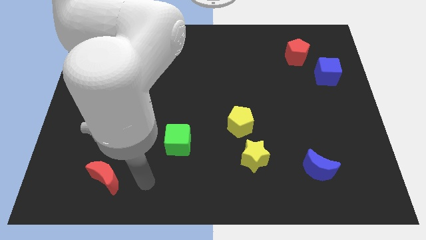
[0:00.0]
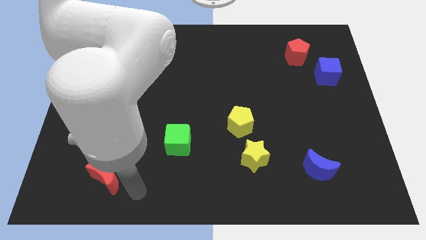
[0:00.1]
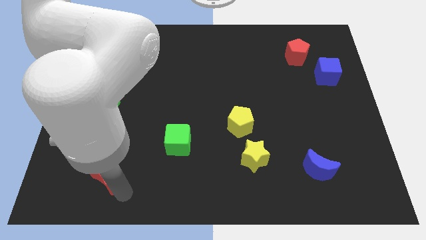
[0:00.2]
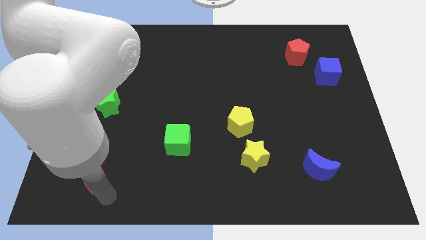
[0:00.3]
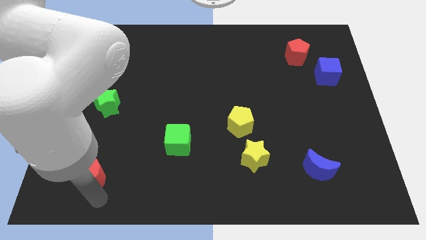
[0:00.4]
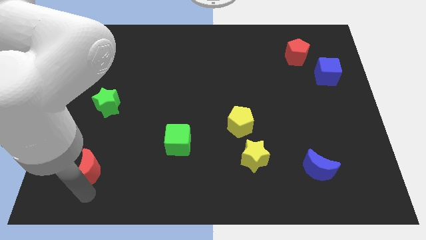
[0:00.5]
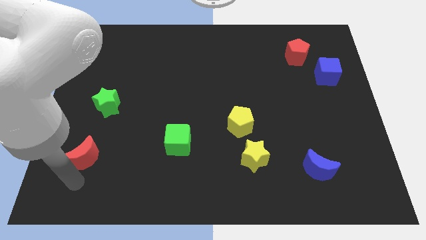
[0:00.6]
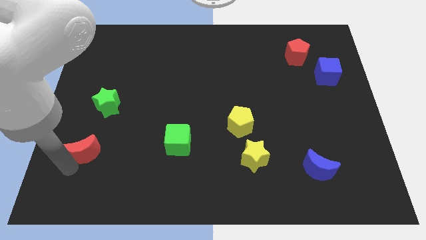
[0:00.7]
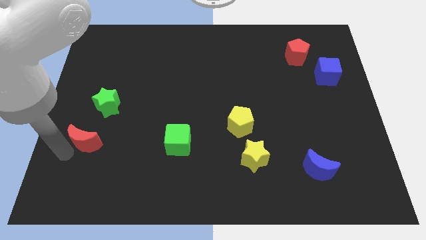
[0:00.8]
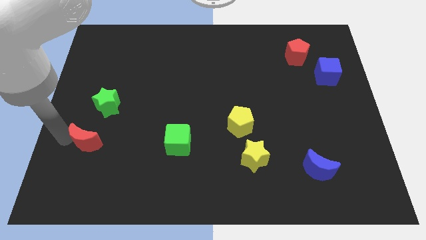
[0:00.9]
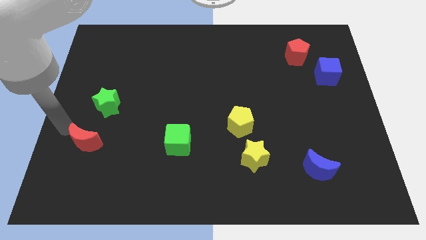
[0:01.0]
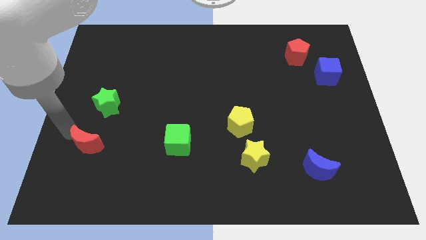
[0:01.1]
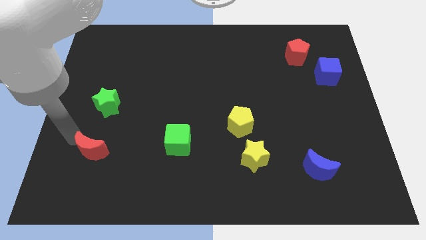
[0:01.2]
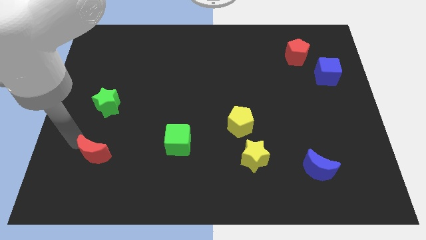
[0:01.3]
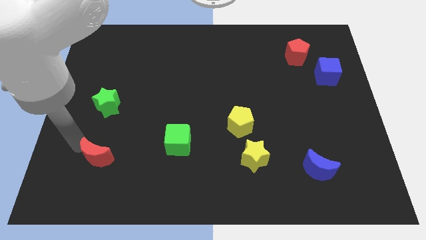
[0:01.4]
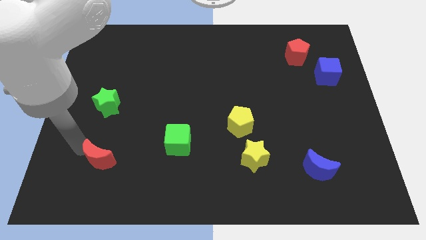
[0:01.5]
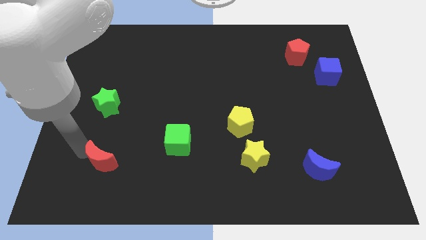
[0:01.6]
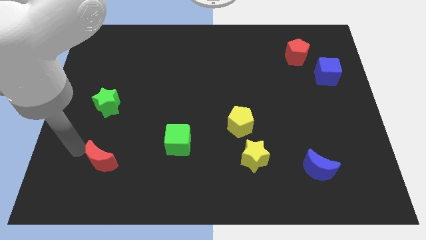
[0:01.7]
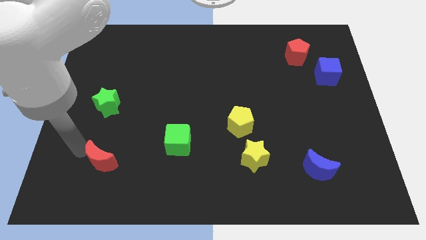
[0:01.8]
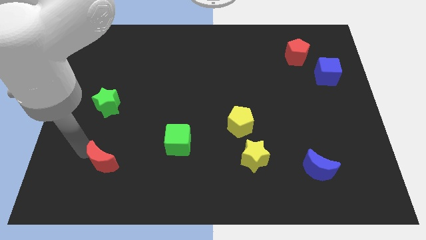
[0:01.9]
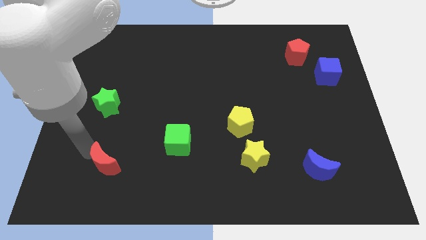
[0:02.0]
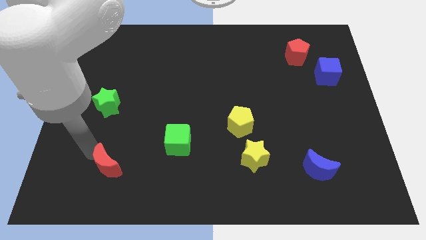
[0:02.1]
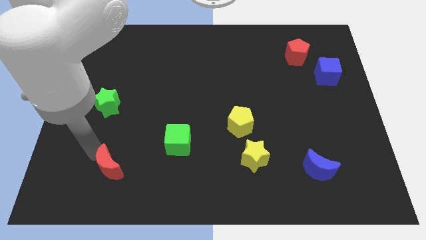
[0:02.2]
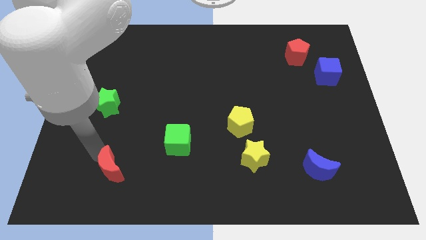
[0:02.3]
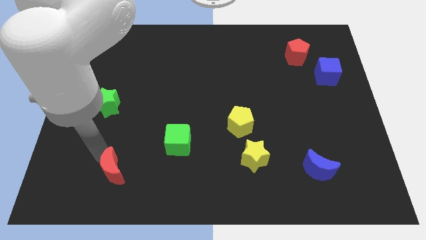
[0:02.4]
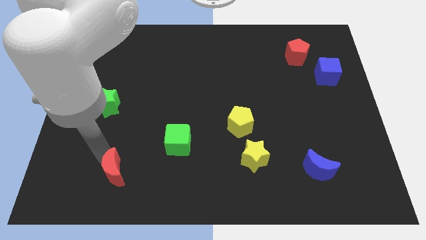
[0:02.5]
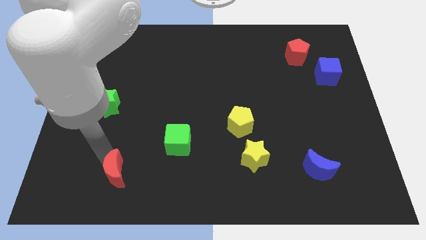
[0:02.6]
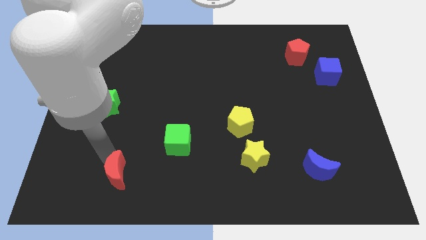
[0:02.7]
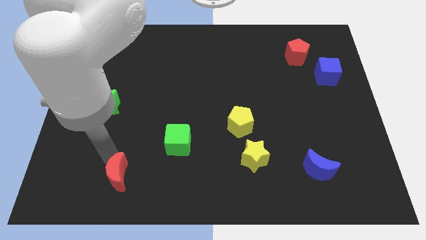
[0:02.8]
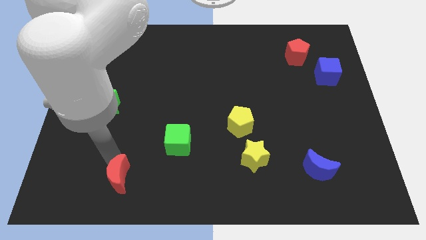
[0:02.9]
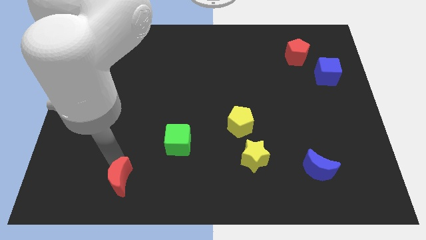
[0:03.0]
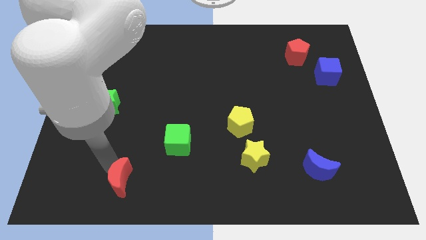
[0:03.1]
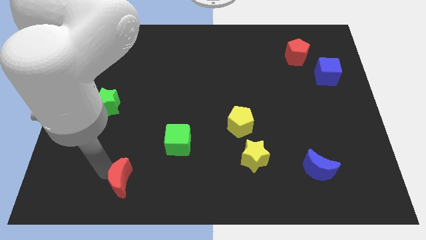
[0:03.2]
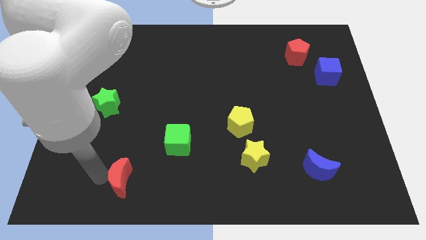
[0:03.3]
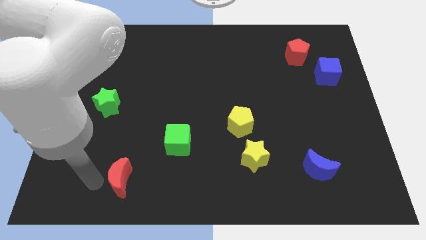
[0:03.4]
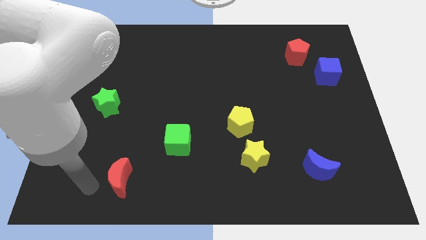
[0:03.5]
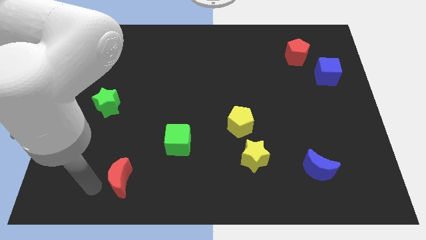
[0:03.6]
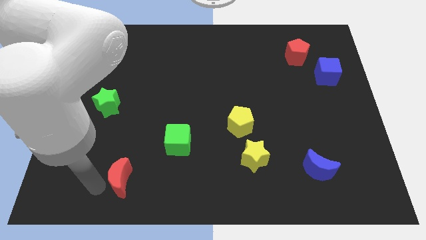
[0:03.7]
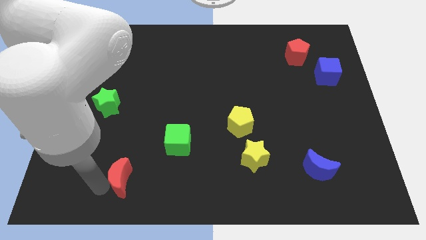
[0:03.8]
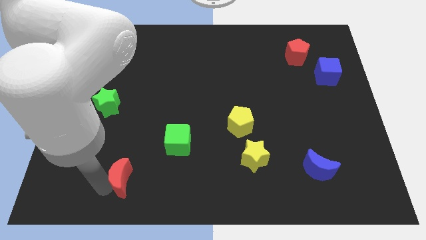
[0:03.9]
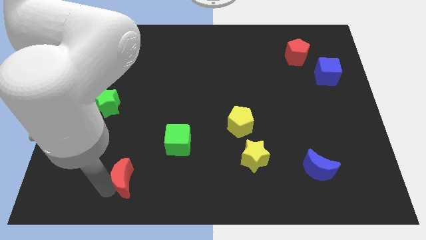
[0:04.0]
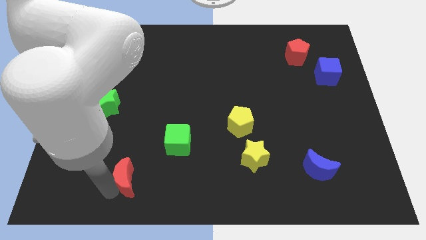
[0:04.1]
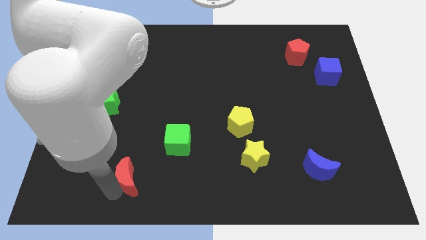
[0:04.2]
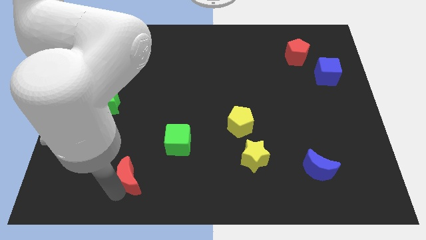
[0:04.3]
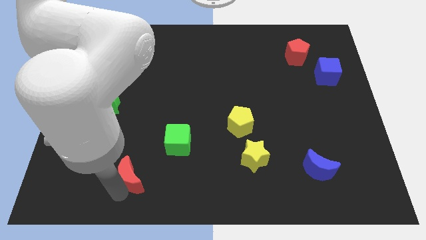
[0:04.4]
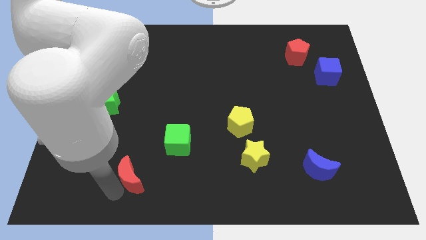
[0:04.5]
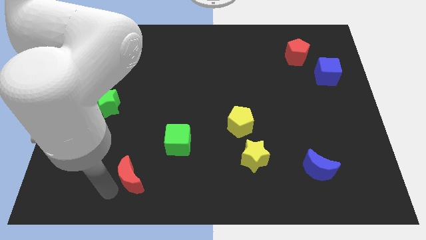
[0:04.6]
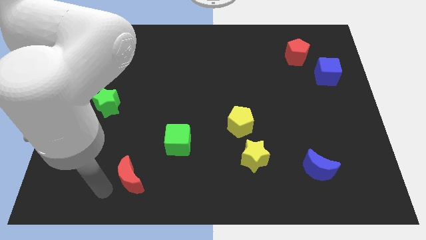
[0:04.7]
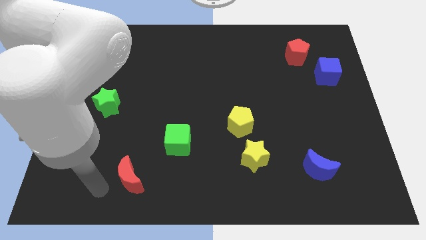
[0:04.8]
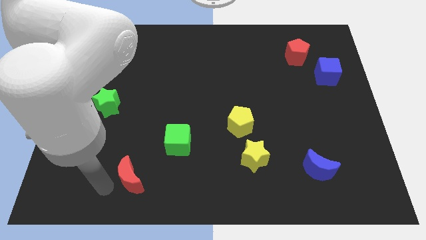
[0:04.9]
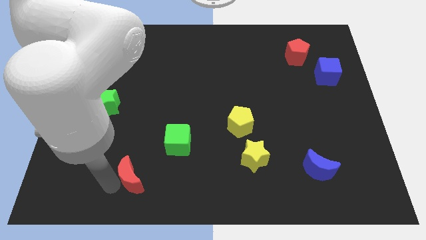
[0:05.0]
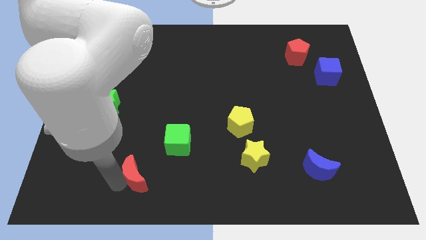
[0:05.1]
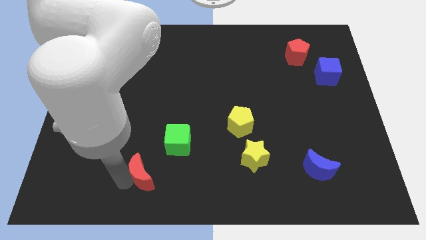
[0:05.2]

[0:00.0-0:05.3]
push the red moon to the right somewhat

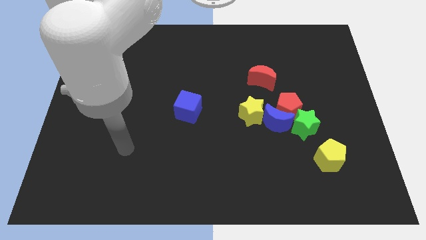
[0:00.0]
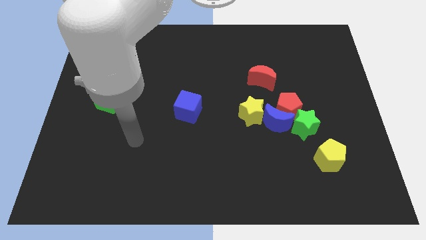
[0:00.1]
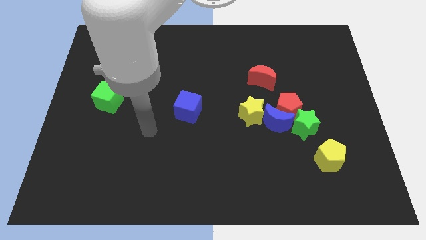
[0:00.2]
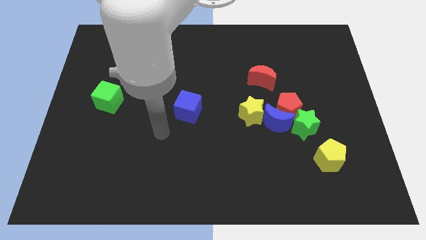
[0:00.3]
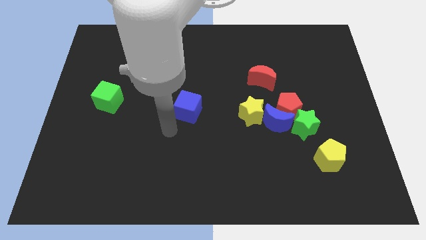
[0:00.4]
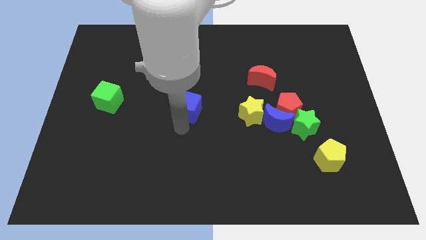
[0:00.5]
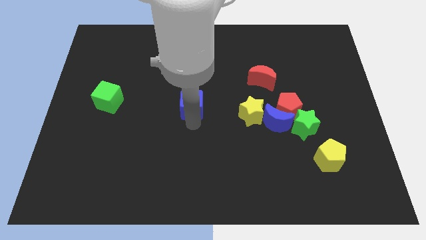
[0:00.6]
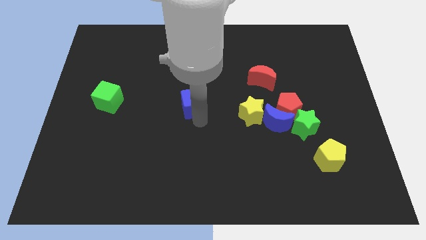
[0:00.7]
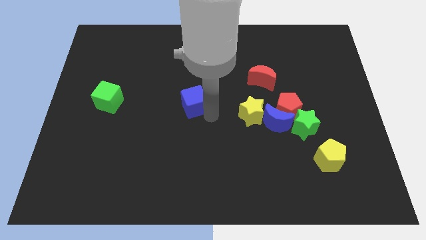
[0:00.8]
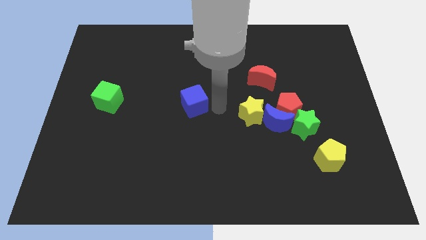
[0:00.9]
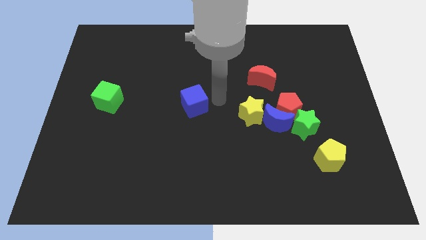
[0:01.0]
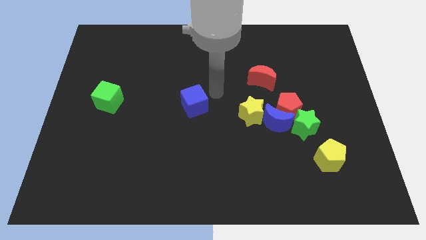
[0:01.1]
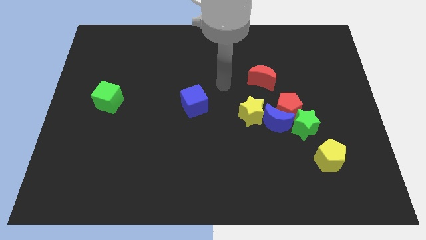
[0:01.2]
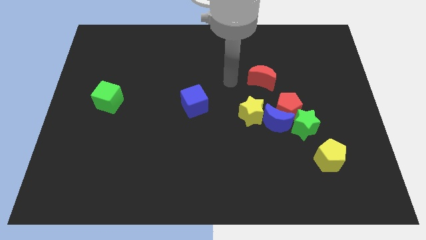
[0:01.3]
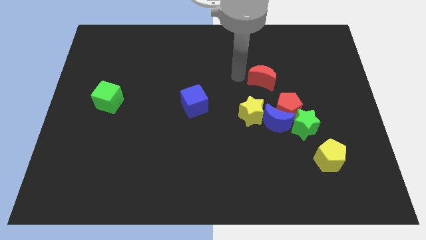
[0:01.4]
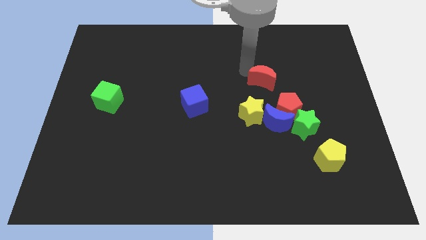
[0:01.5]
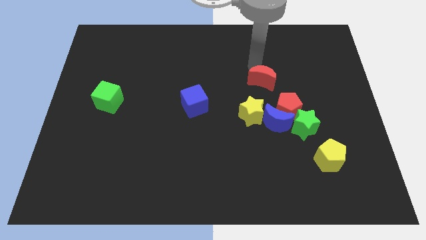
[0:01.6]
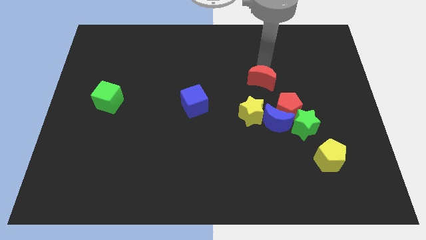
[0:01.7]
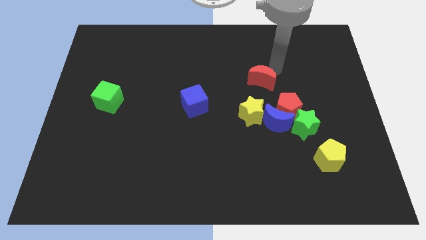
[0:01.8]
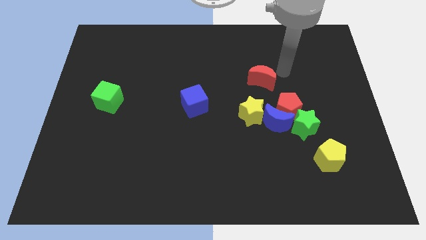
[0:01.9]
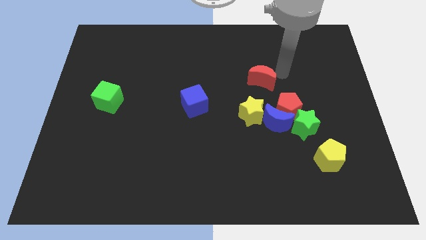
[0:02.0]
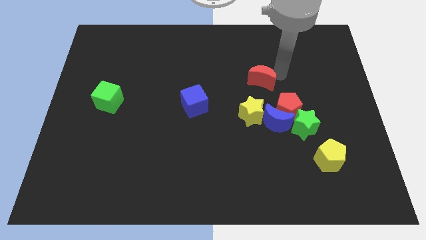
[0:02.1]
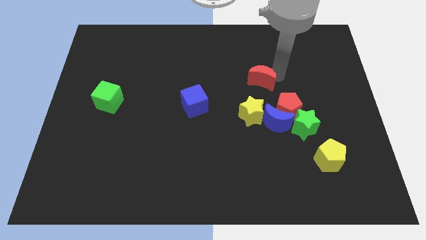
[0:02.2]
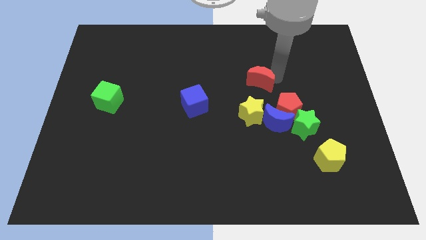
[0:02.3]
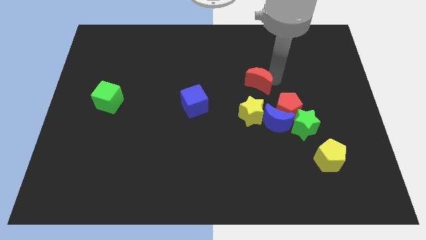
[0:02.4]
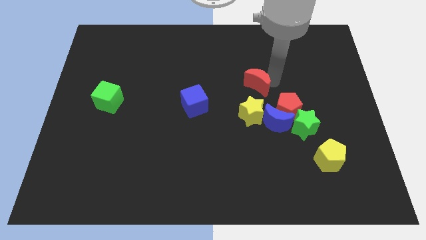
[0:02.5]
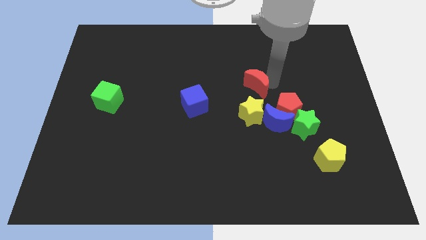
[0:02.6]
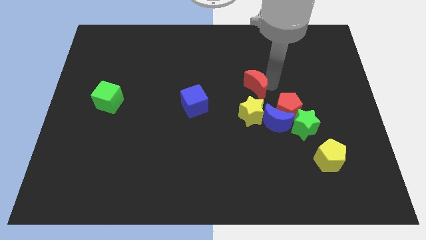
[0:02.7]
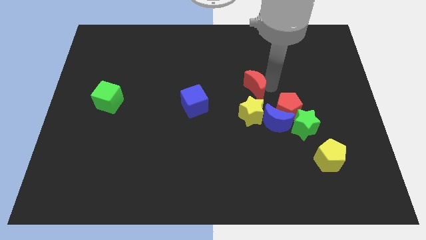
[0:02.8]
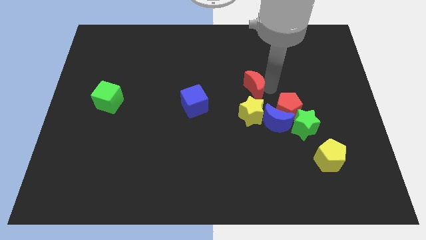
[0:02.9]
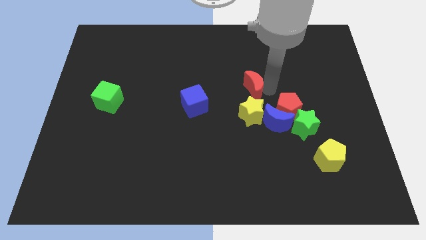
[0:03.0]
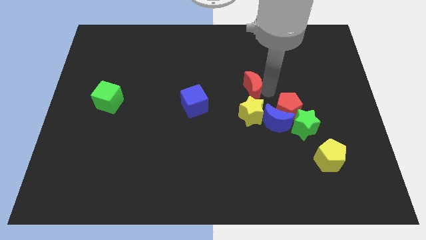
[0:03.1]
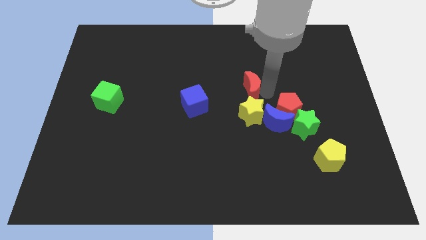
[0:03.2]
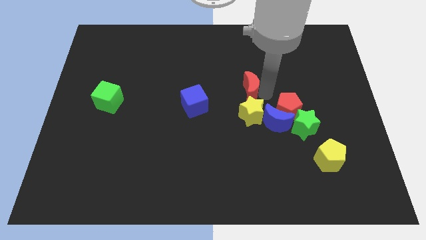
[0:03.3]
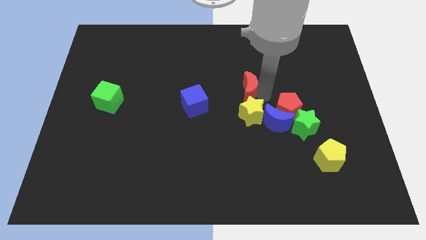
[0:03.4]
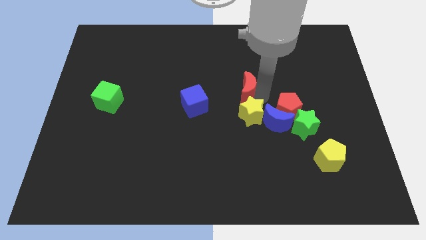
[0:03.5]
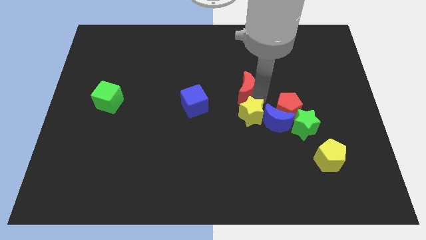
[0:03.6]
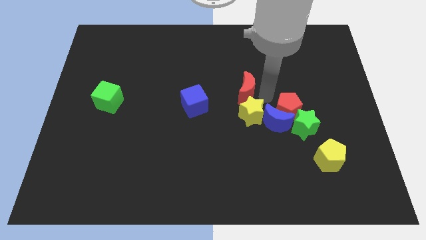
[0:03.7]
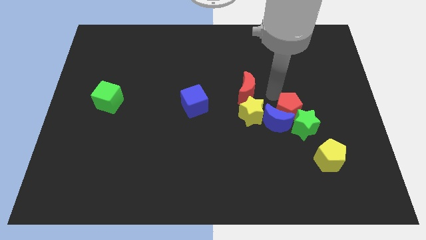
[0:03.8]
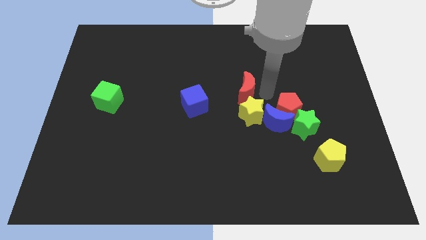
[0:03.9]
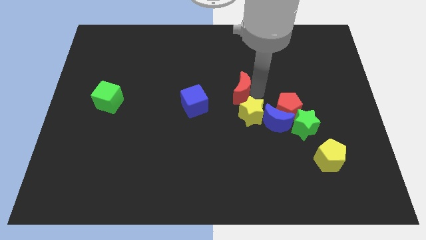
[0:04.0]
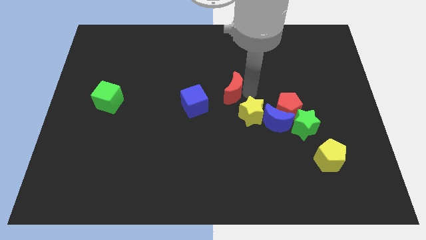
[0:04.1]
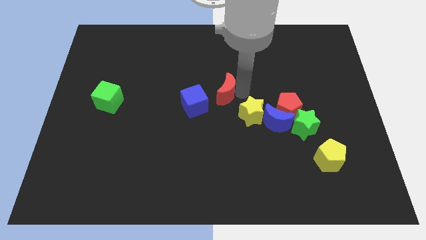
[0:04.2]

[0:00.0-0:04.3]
slide the red moon to the left slightly
